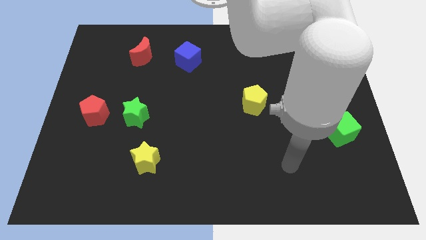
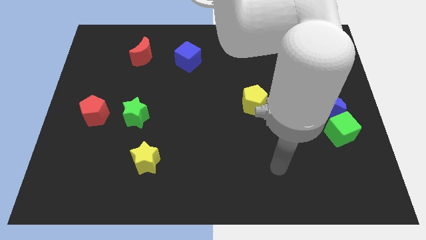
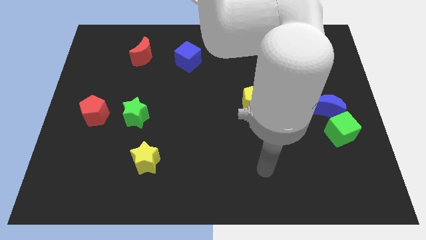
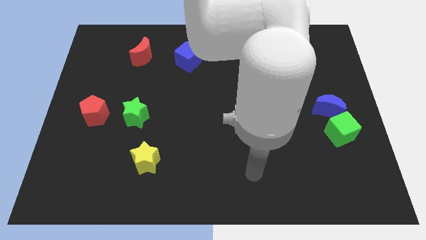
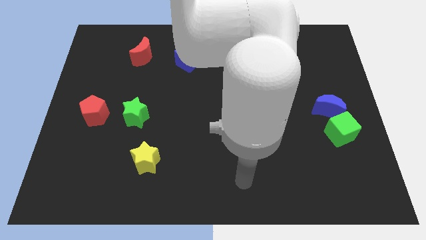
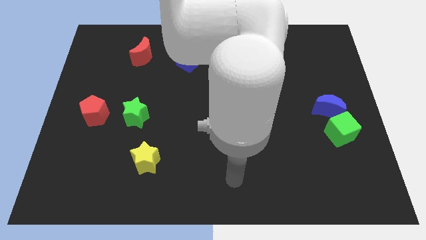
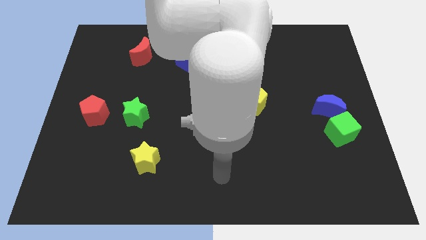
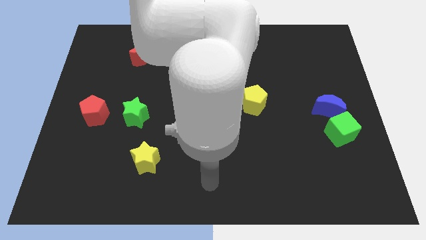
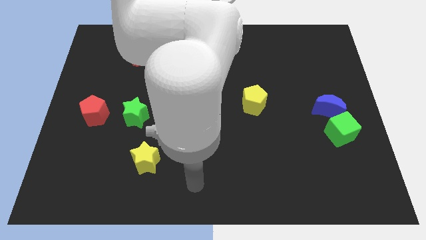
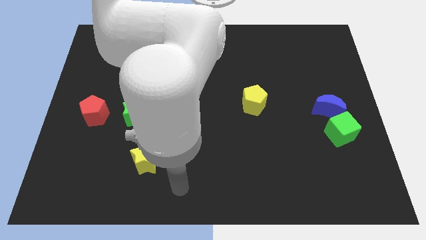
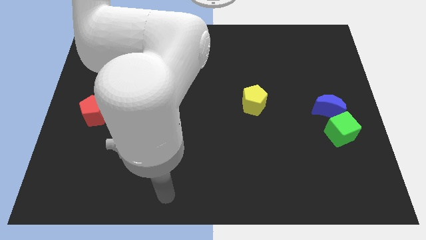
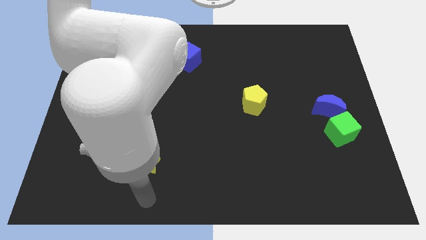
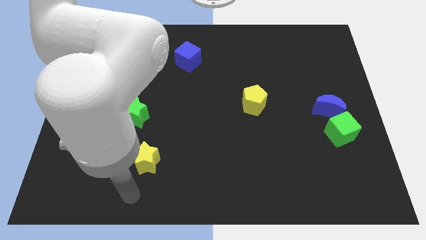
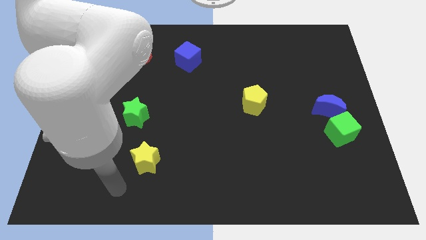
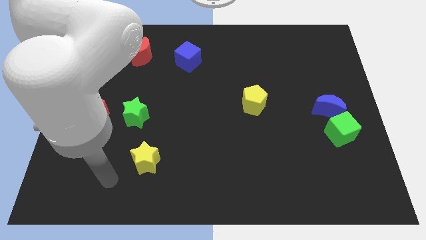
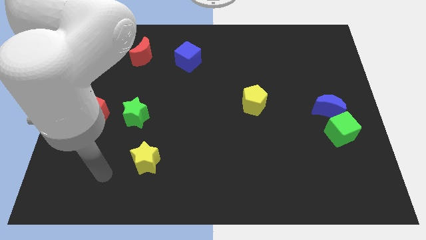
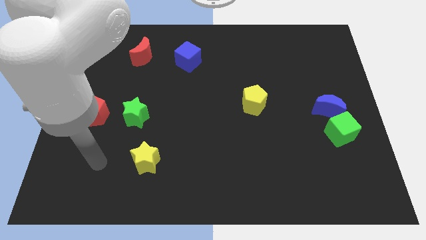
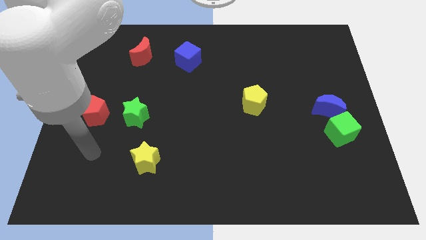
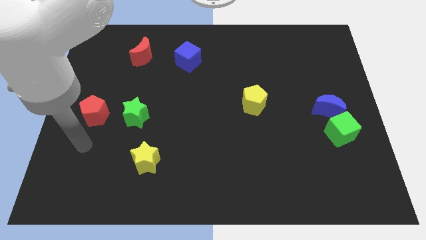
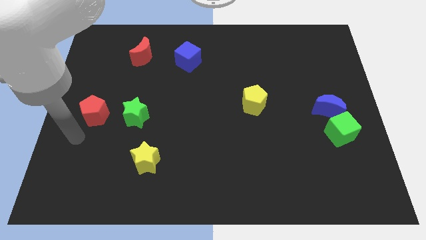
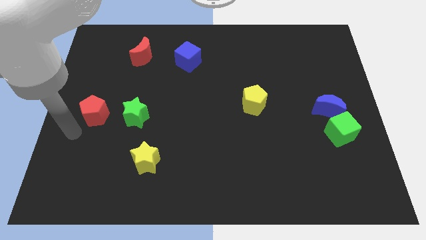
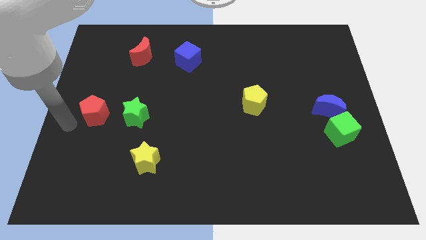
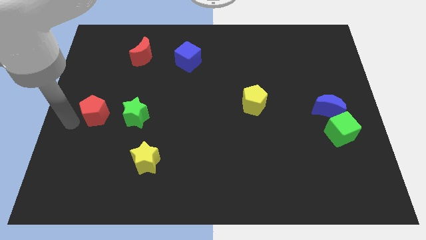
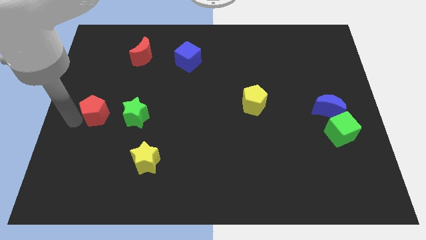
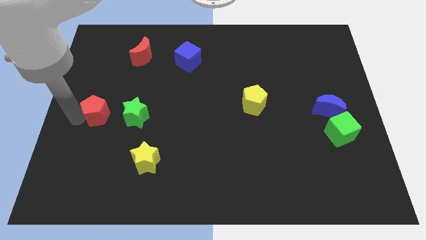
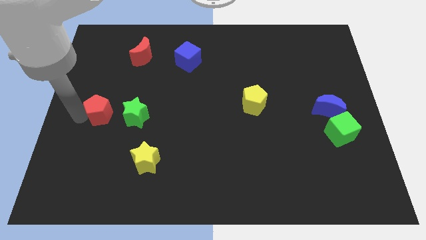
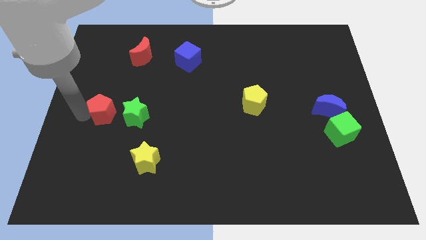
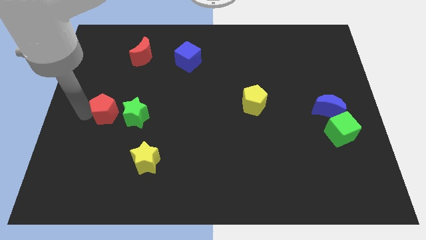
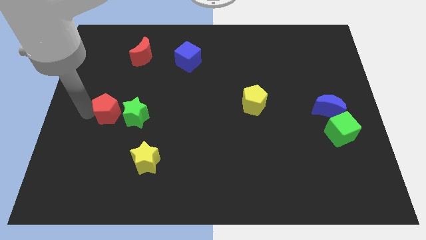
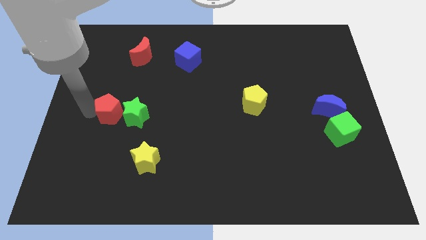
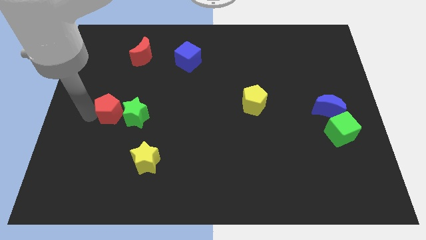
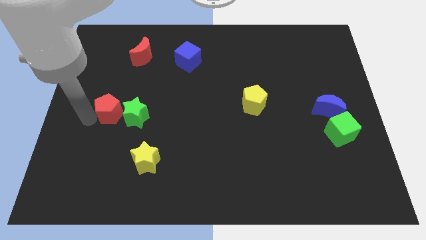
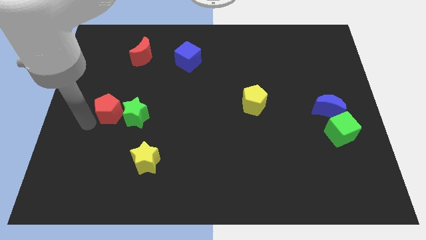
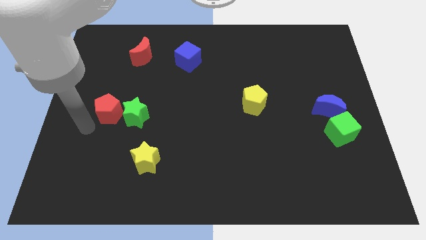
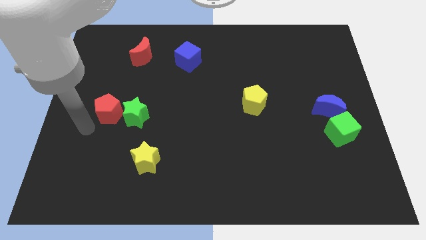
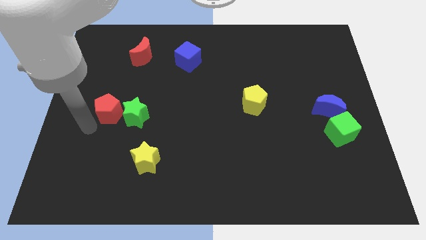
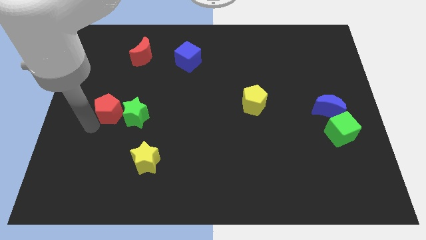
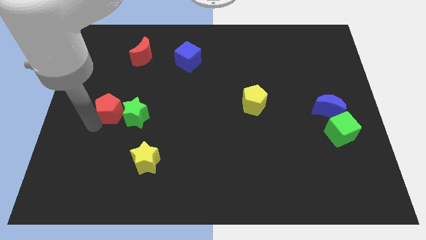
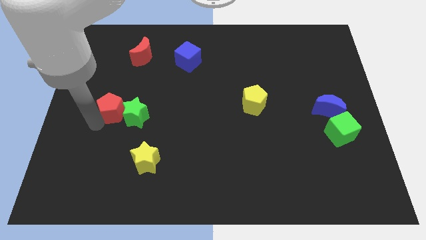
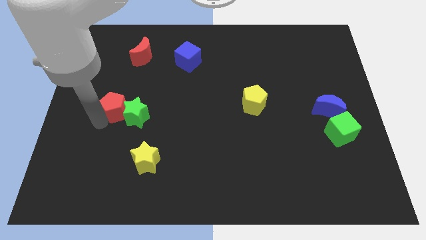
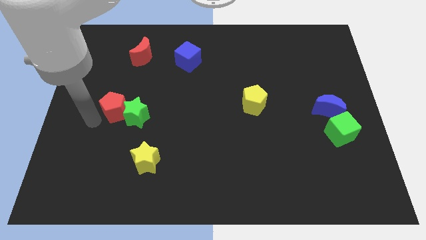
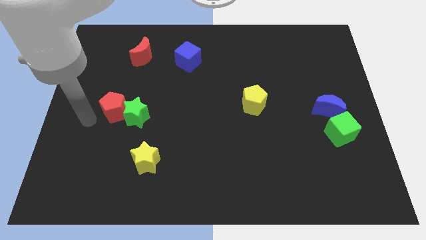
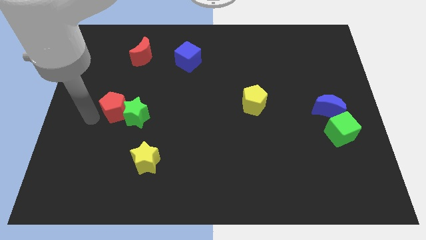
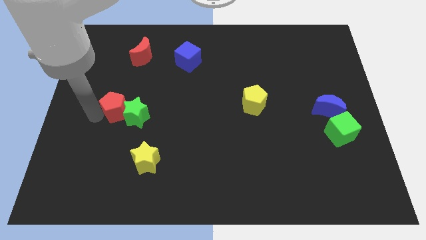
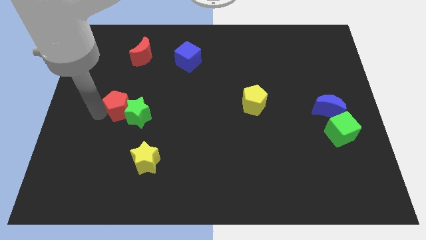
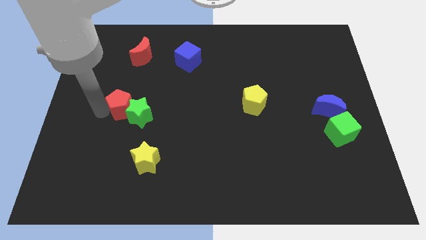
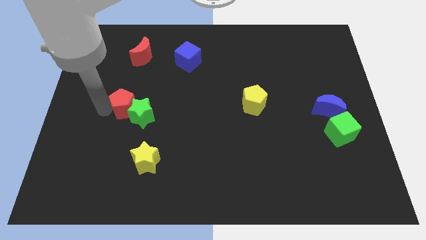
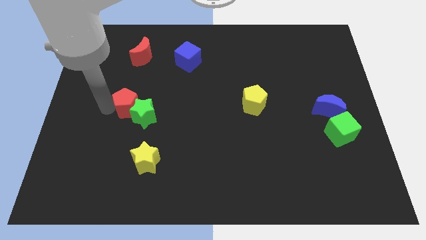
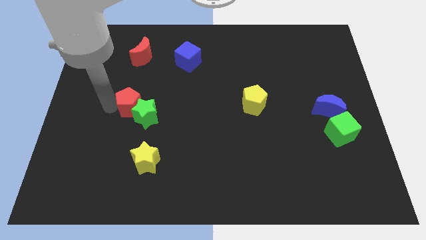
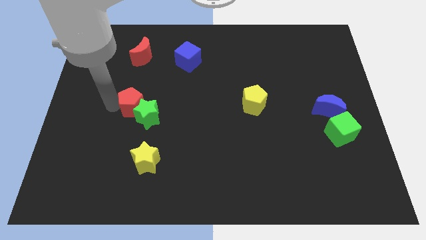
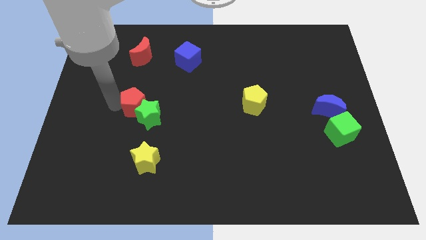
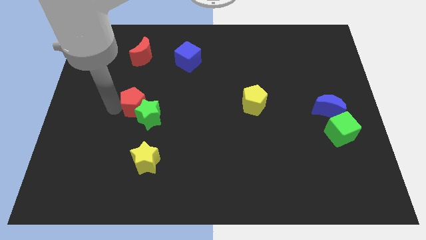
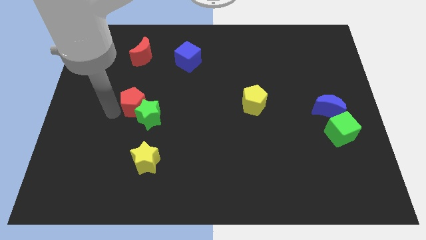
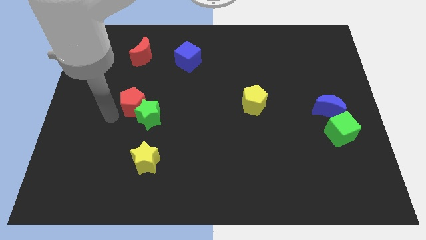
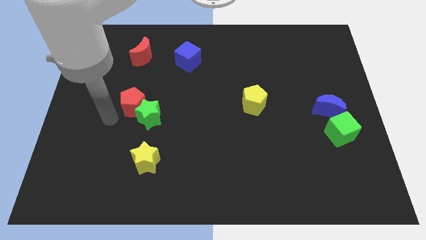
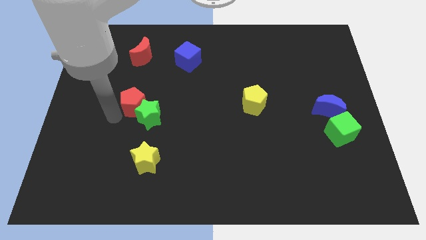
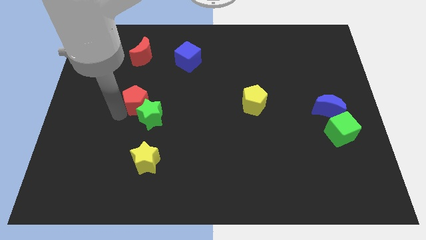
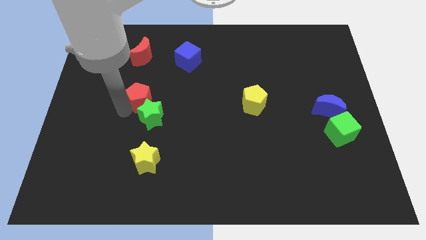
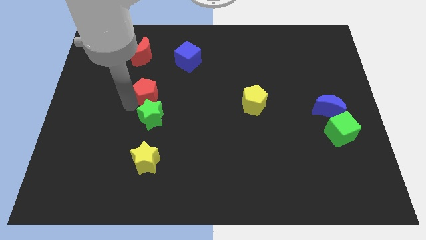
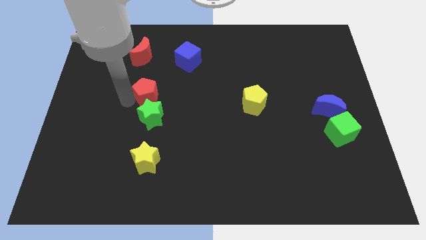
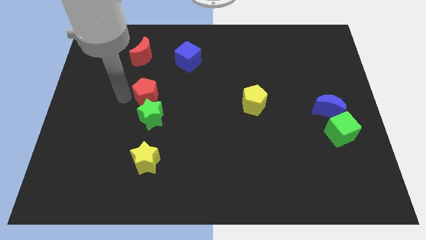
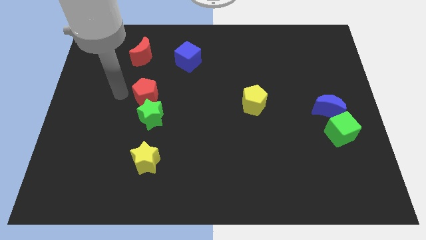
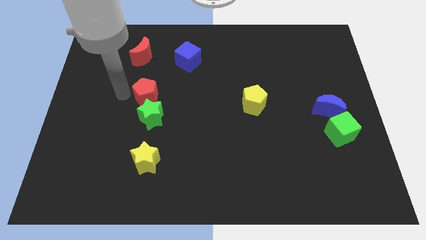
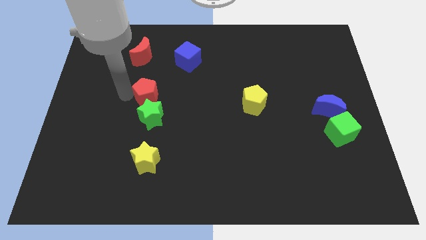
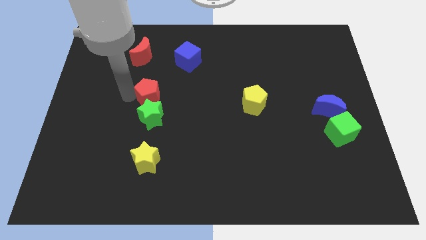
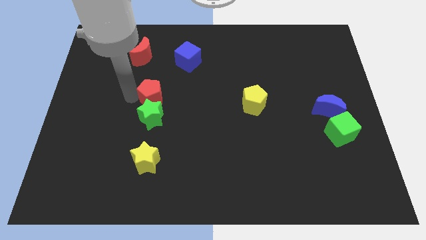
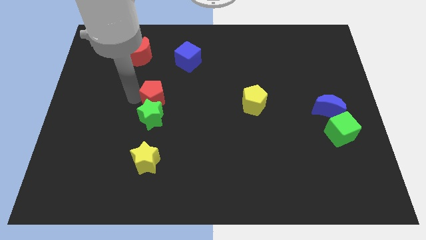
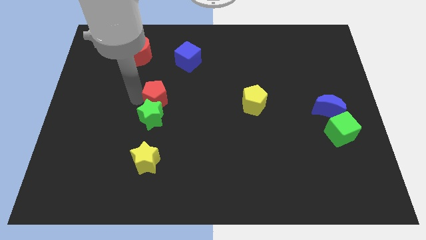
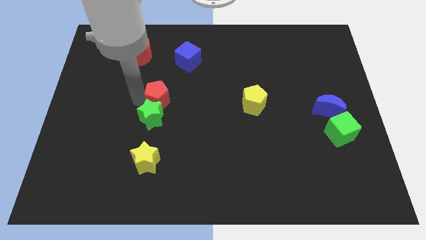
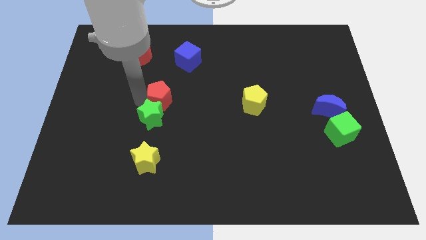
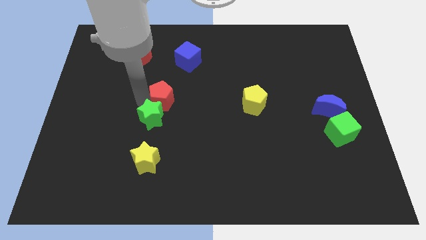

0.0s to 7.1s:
push the red pentagon to the middle of the board
